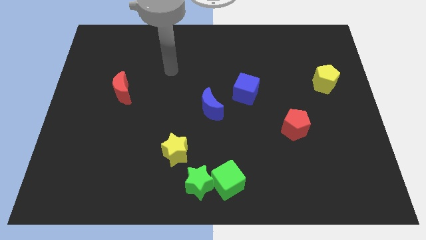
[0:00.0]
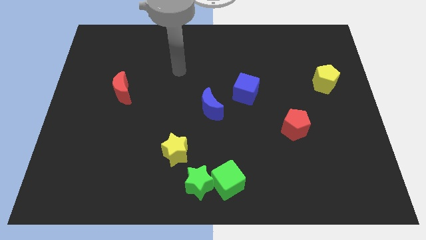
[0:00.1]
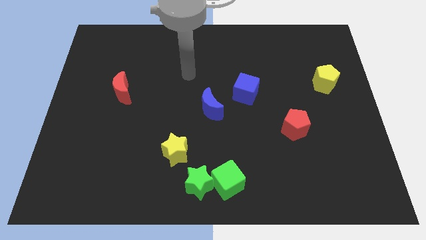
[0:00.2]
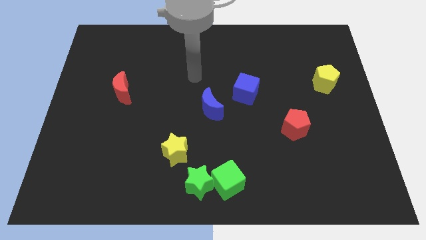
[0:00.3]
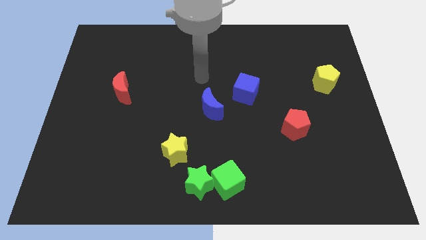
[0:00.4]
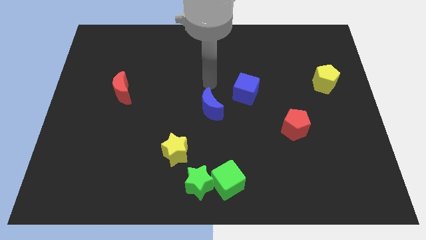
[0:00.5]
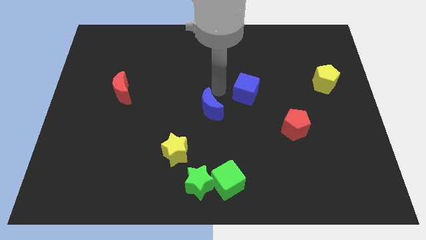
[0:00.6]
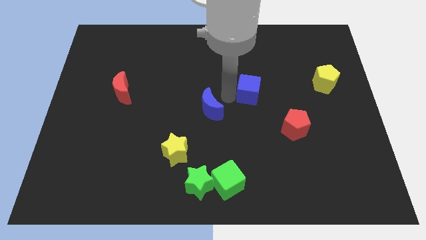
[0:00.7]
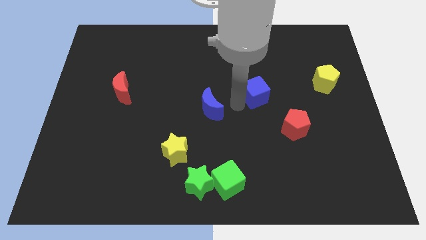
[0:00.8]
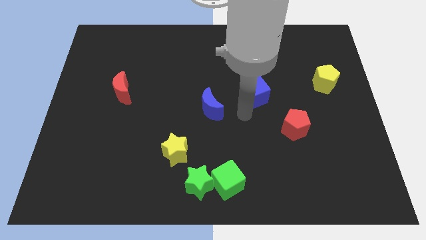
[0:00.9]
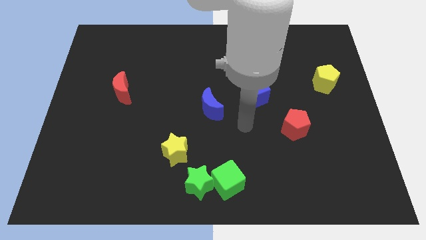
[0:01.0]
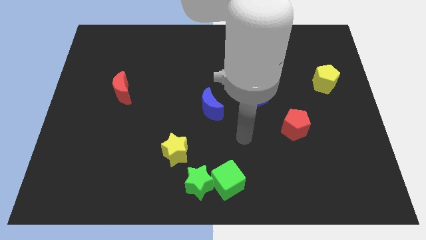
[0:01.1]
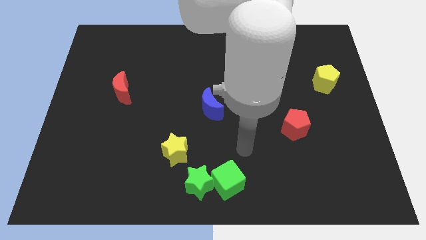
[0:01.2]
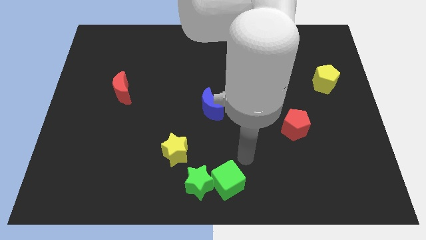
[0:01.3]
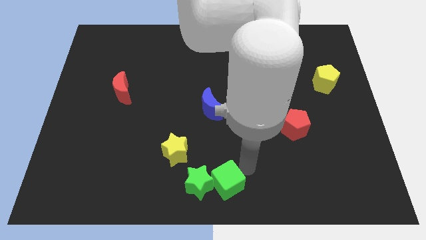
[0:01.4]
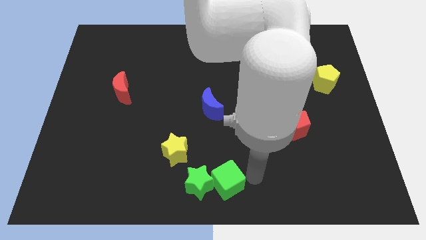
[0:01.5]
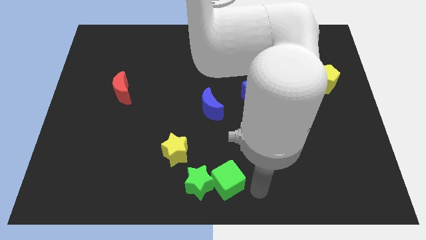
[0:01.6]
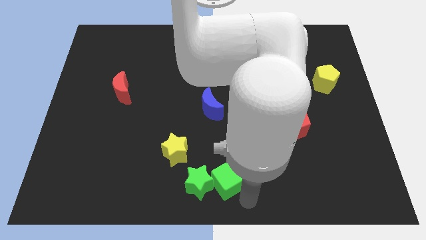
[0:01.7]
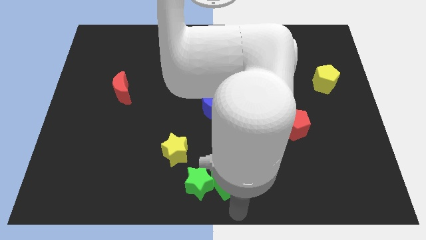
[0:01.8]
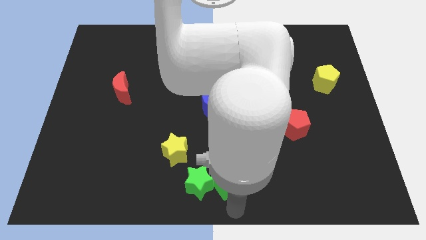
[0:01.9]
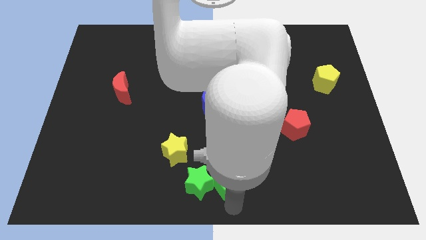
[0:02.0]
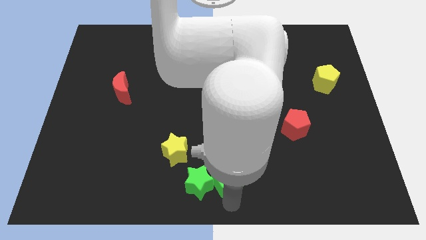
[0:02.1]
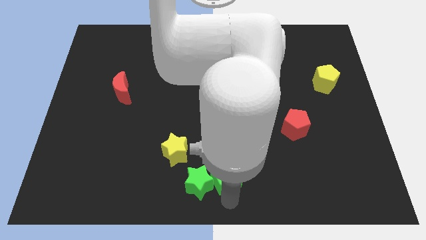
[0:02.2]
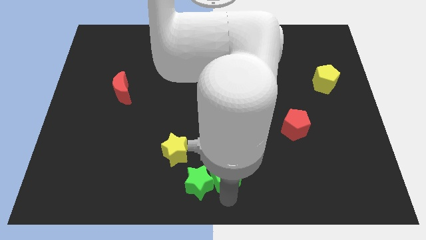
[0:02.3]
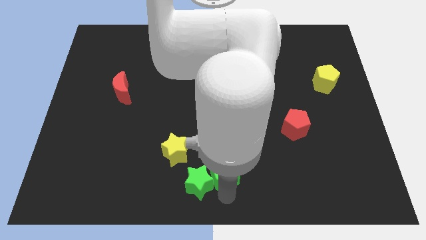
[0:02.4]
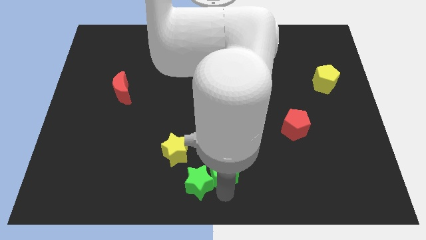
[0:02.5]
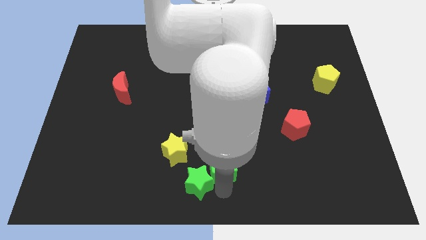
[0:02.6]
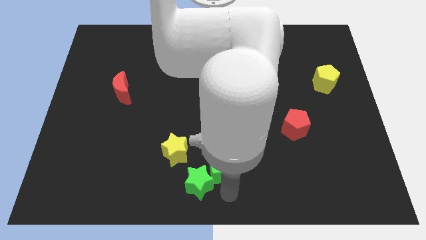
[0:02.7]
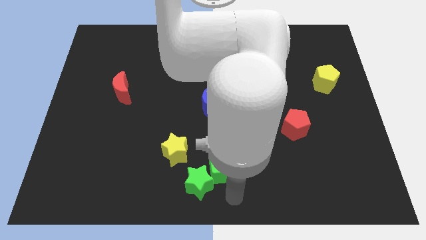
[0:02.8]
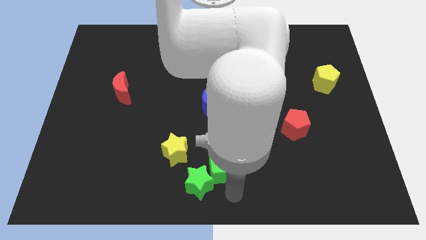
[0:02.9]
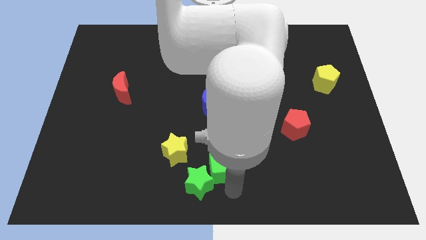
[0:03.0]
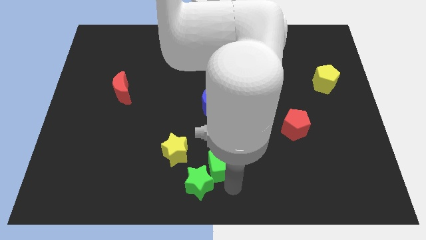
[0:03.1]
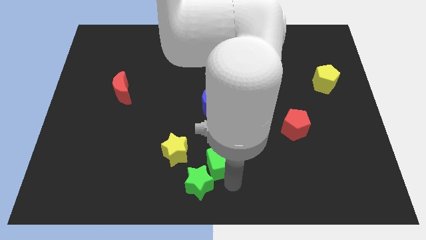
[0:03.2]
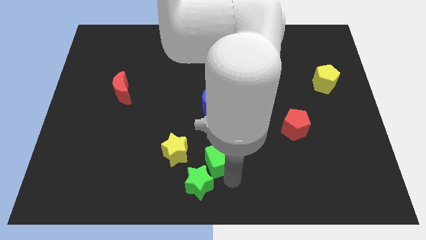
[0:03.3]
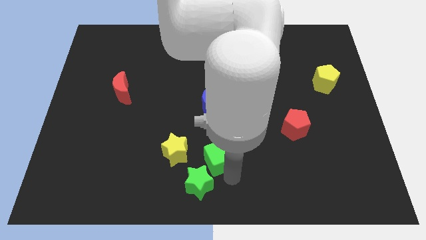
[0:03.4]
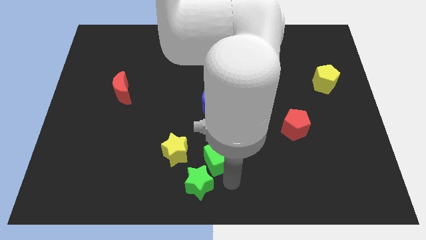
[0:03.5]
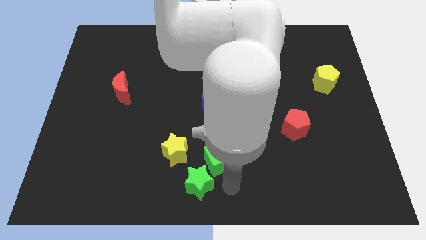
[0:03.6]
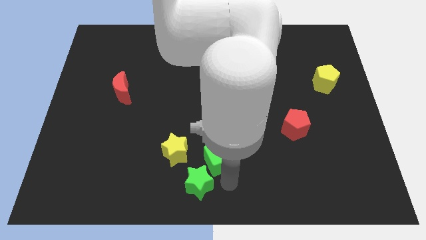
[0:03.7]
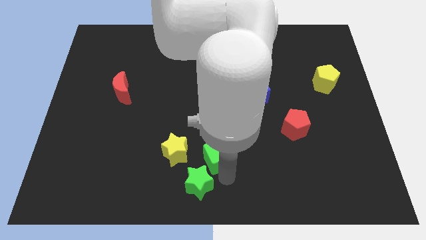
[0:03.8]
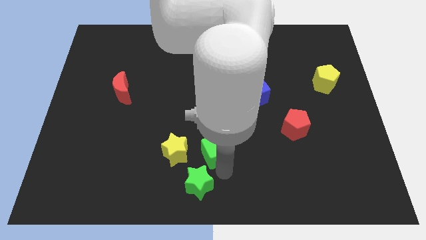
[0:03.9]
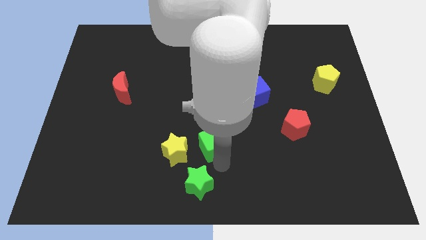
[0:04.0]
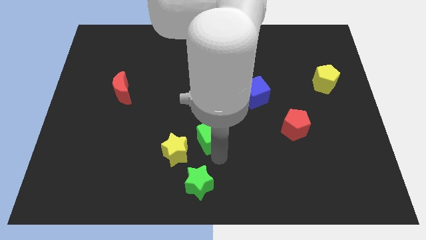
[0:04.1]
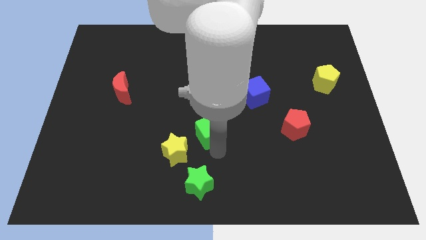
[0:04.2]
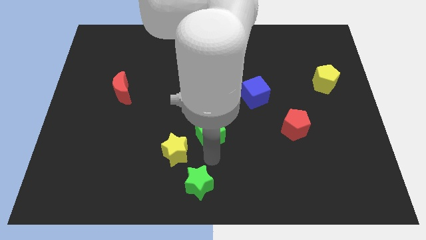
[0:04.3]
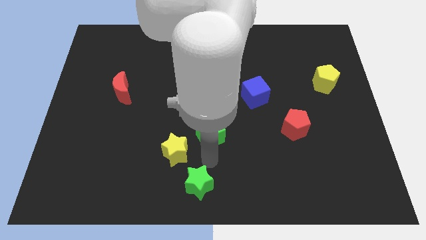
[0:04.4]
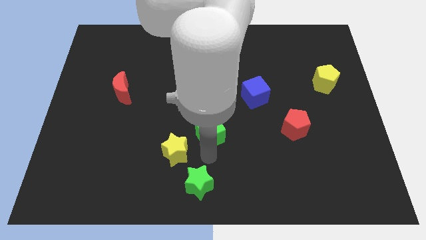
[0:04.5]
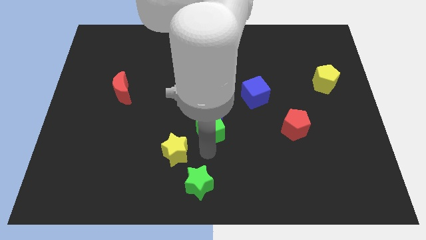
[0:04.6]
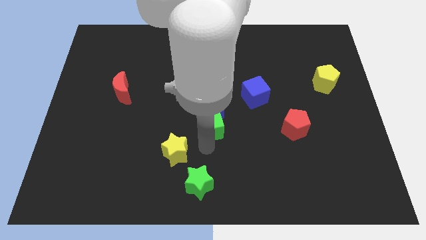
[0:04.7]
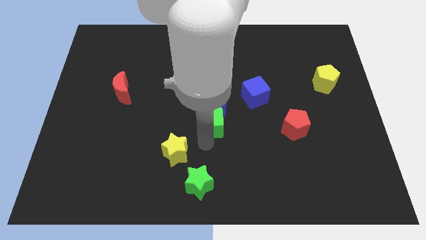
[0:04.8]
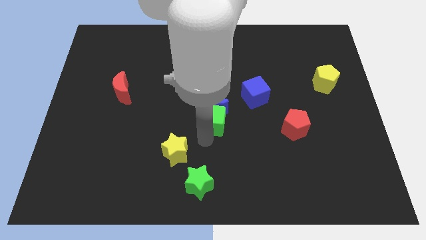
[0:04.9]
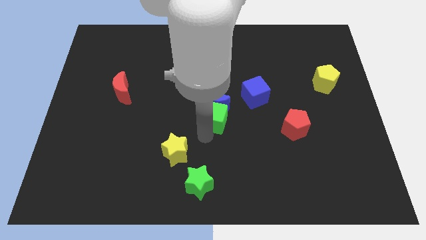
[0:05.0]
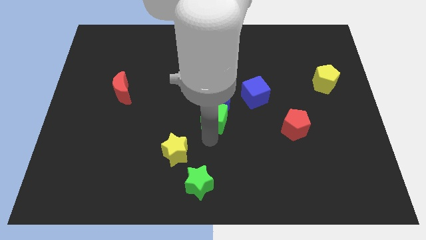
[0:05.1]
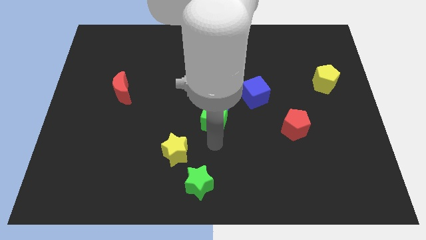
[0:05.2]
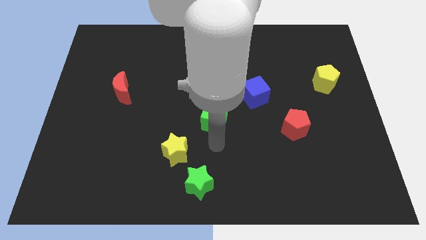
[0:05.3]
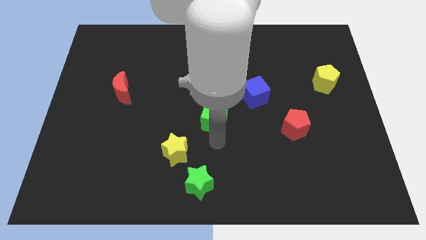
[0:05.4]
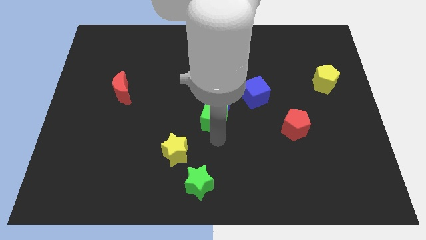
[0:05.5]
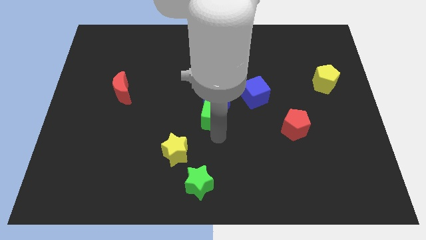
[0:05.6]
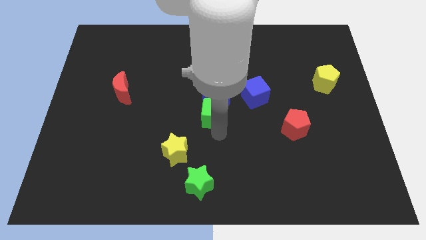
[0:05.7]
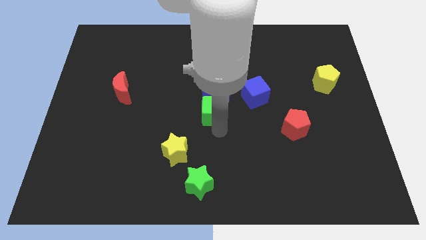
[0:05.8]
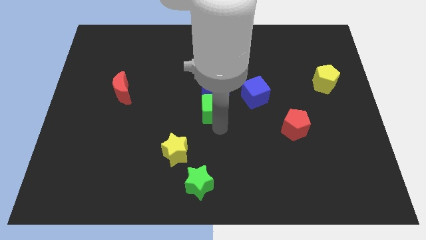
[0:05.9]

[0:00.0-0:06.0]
push the green cube to the left of the blue cube

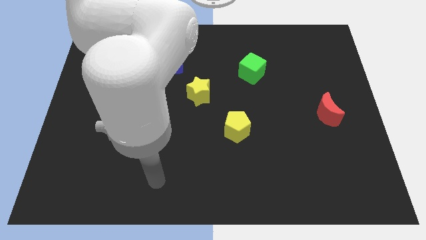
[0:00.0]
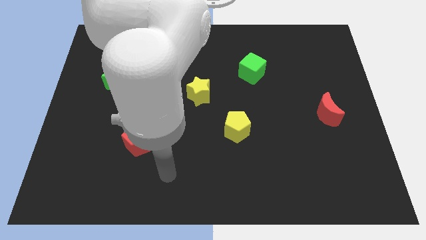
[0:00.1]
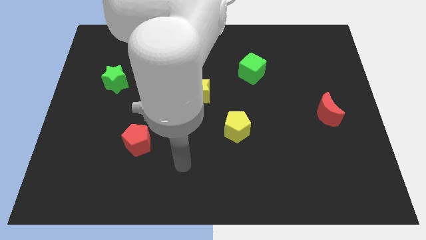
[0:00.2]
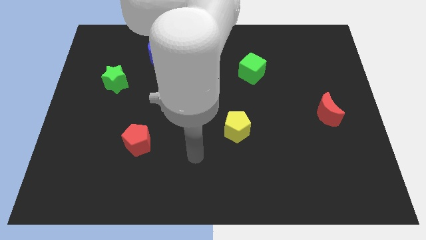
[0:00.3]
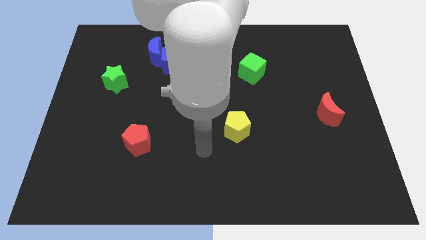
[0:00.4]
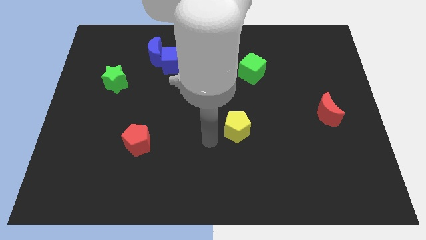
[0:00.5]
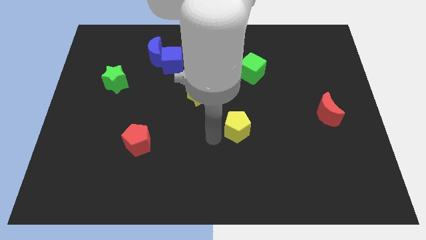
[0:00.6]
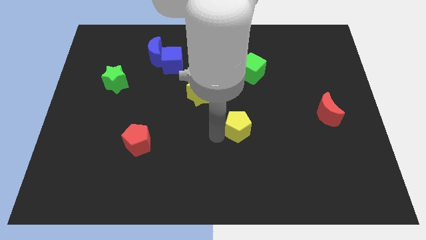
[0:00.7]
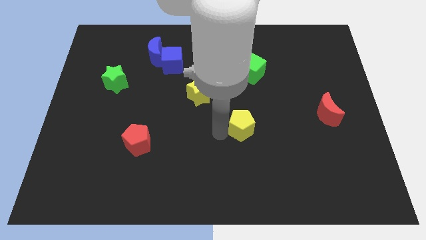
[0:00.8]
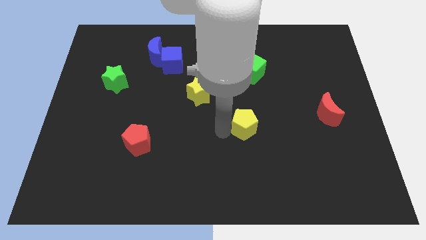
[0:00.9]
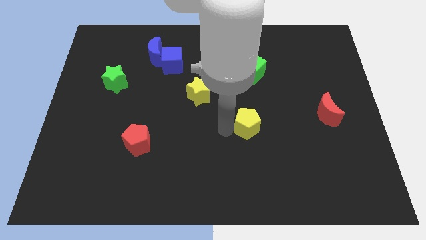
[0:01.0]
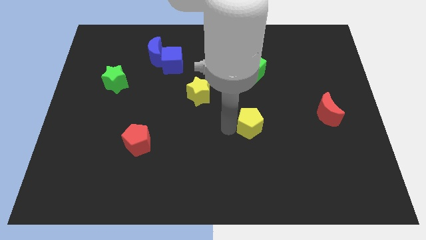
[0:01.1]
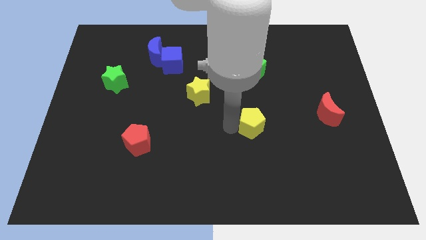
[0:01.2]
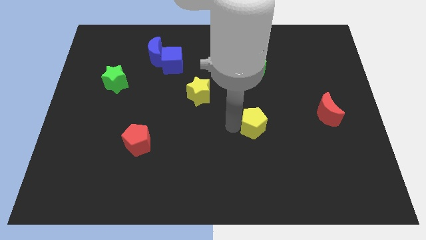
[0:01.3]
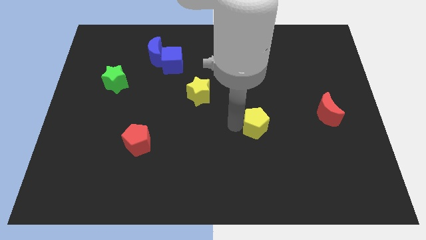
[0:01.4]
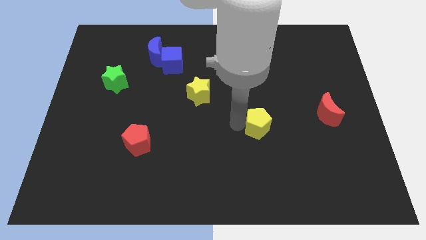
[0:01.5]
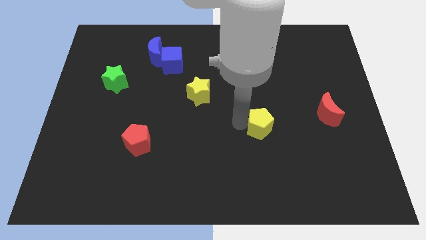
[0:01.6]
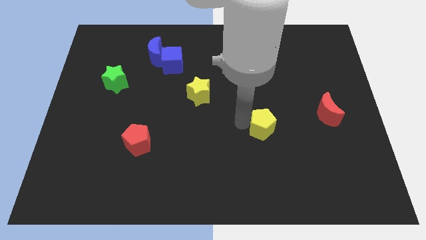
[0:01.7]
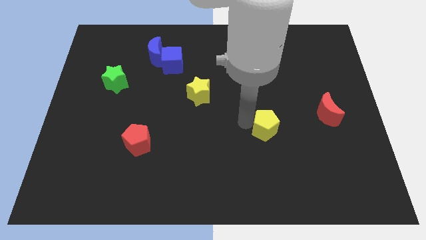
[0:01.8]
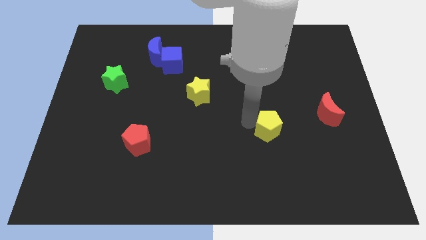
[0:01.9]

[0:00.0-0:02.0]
move the yellow pentagon left of the red moon
